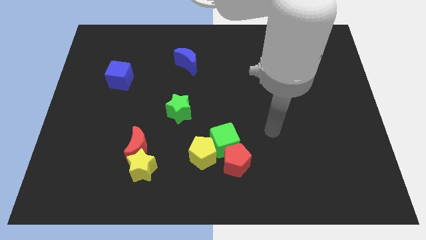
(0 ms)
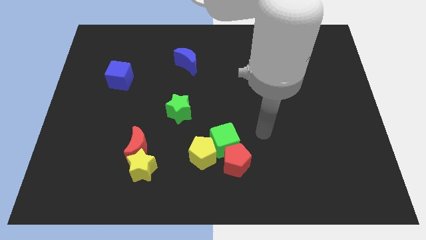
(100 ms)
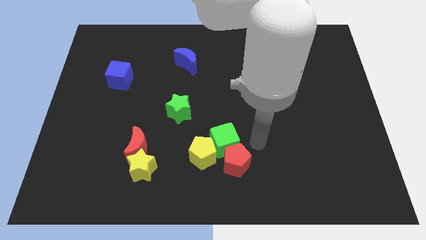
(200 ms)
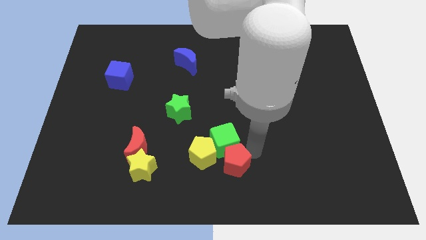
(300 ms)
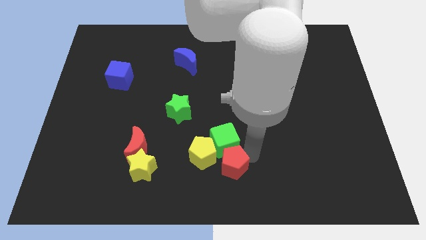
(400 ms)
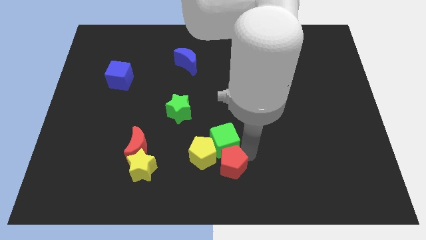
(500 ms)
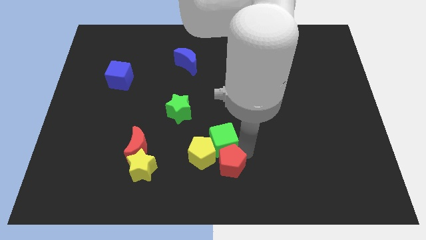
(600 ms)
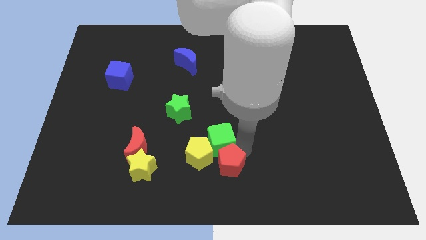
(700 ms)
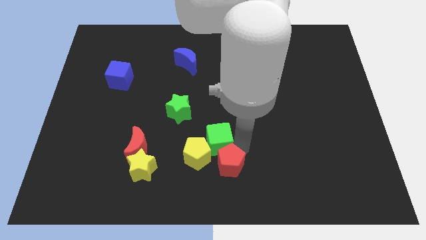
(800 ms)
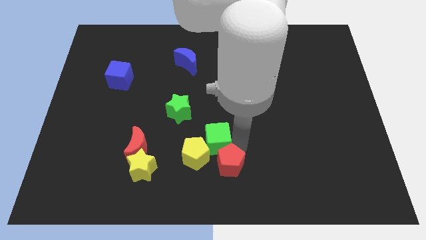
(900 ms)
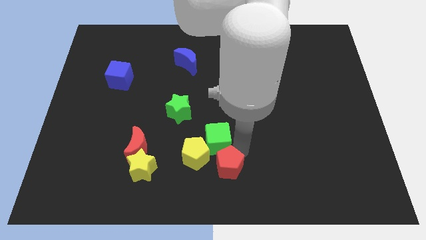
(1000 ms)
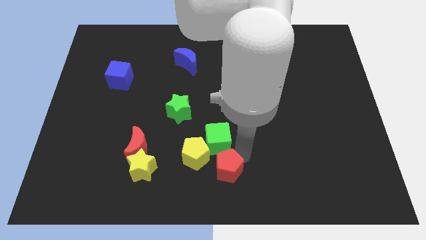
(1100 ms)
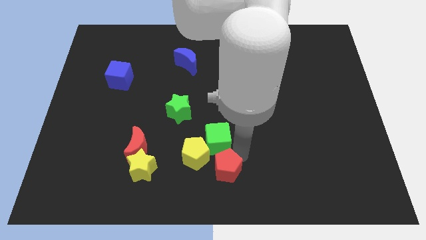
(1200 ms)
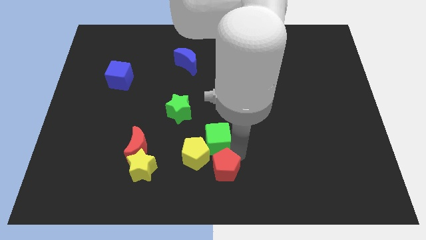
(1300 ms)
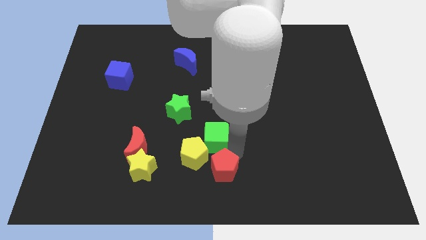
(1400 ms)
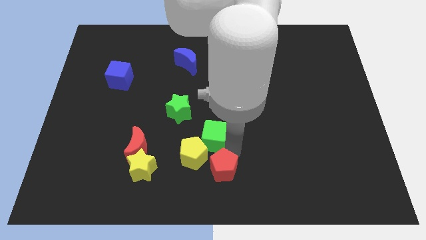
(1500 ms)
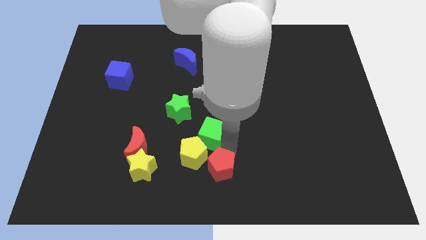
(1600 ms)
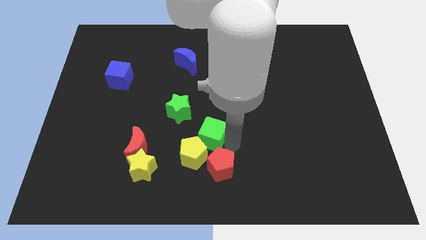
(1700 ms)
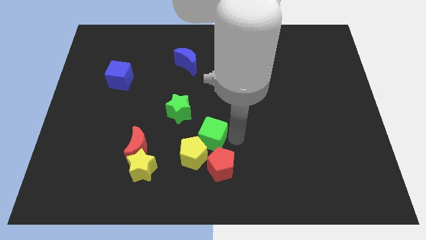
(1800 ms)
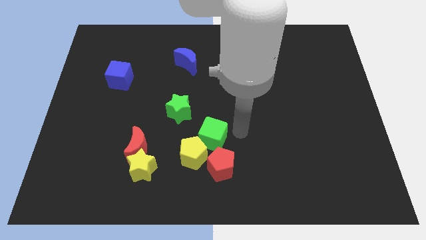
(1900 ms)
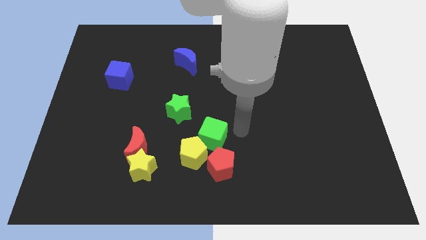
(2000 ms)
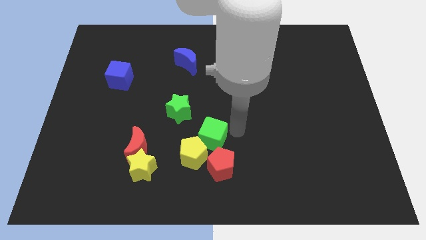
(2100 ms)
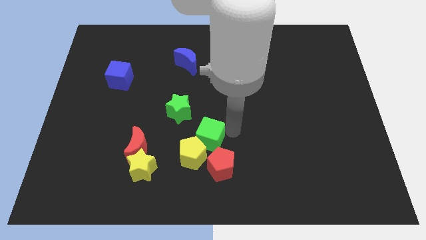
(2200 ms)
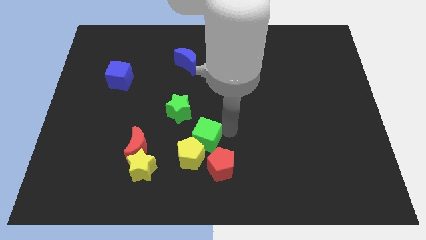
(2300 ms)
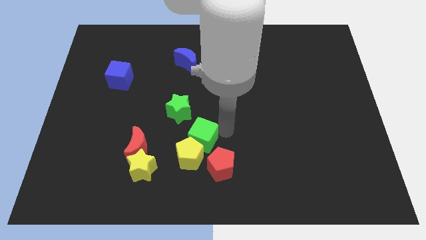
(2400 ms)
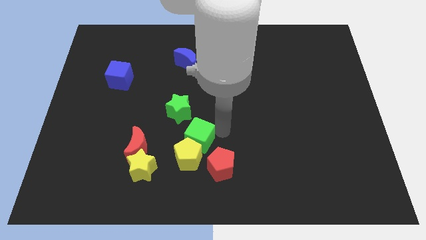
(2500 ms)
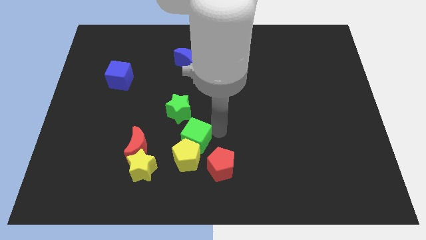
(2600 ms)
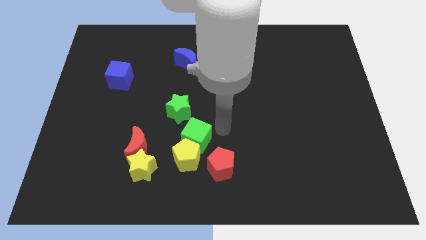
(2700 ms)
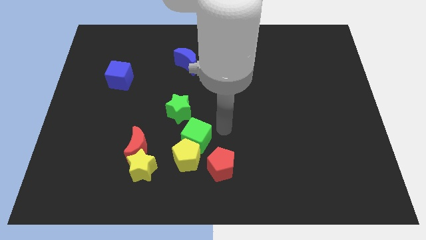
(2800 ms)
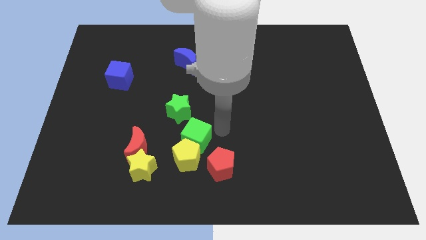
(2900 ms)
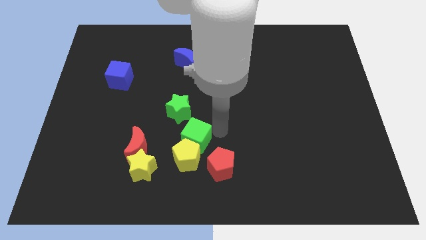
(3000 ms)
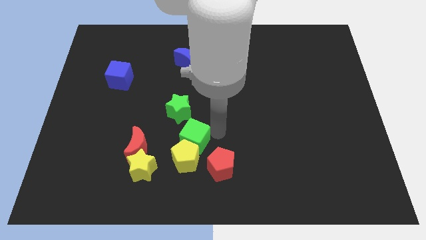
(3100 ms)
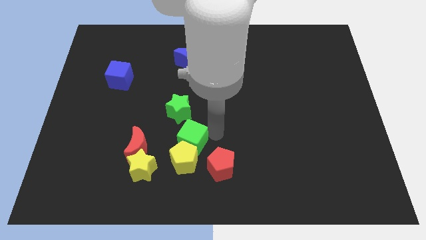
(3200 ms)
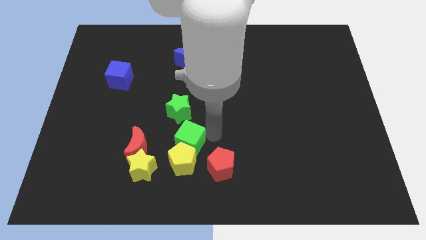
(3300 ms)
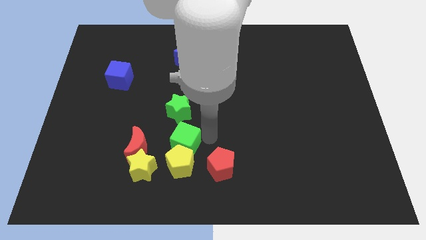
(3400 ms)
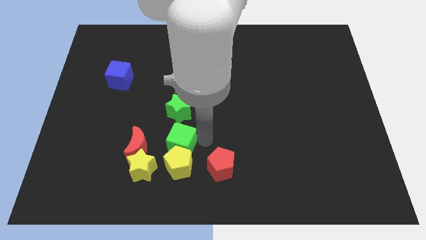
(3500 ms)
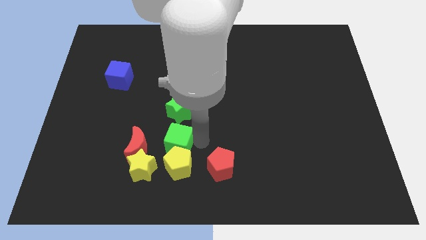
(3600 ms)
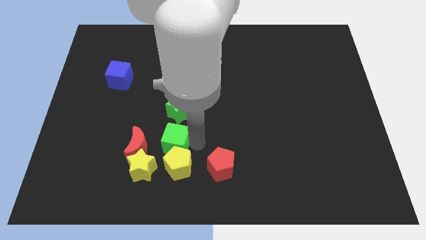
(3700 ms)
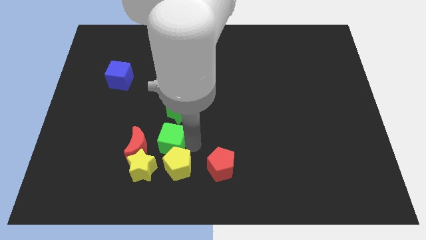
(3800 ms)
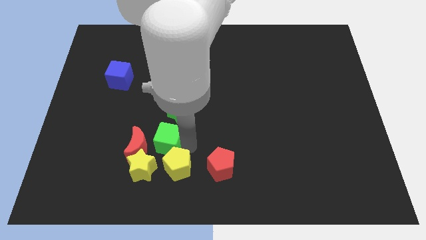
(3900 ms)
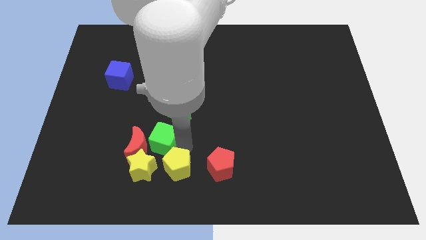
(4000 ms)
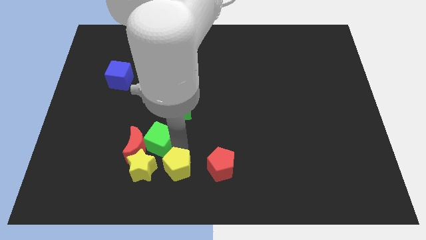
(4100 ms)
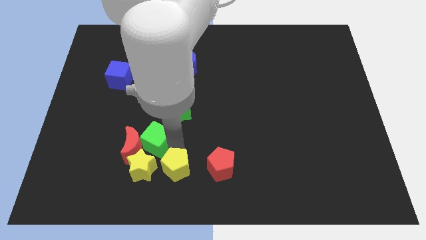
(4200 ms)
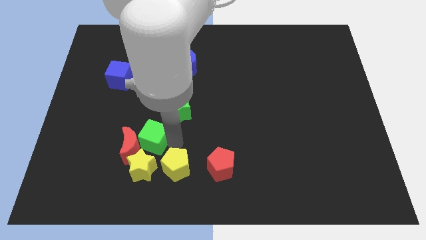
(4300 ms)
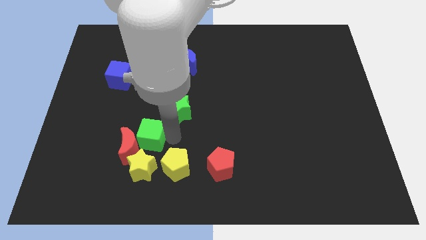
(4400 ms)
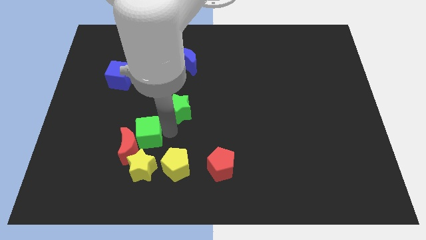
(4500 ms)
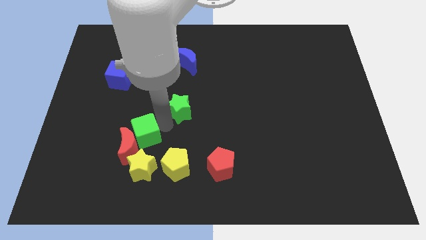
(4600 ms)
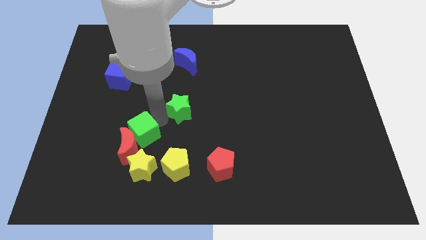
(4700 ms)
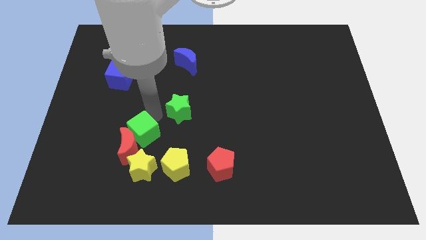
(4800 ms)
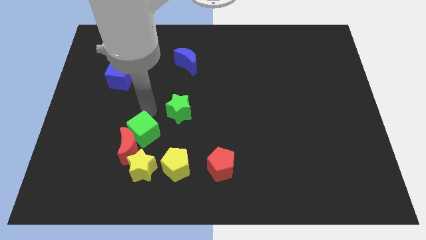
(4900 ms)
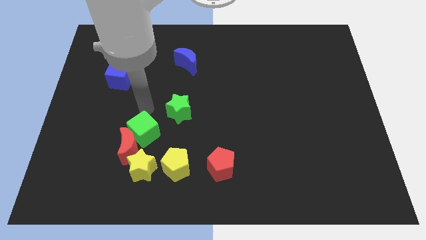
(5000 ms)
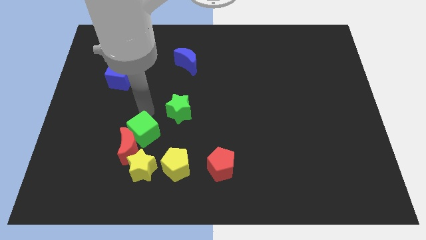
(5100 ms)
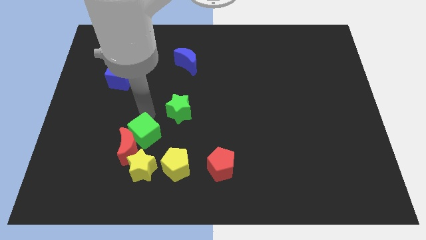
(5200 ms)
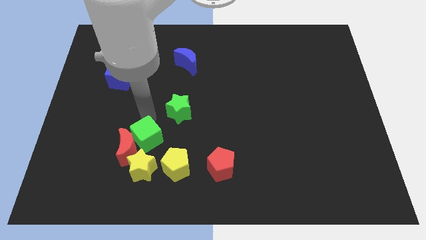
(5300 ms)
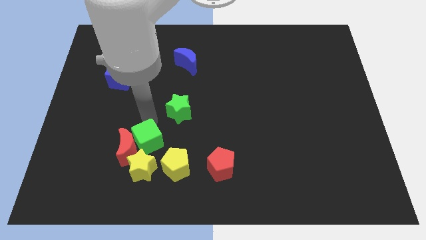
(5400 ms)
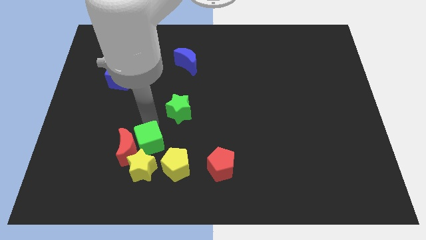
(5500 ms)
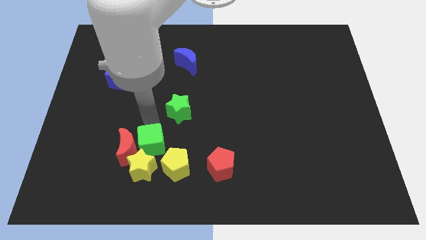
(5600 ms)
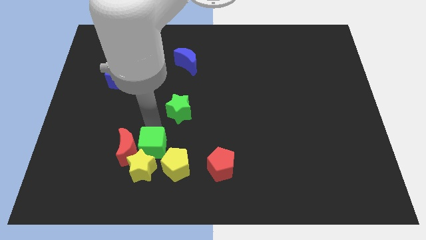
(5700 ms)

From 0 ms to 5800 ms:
slide the green cube towards the yellow star

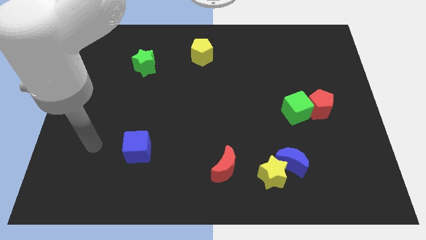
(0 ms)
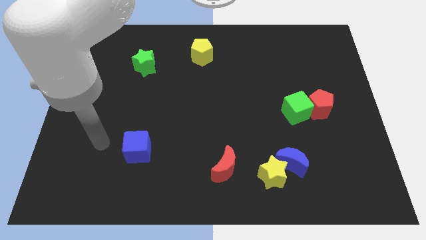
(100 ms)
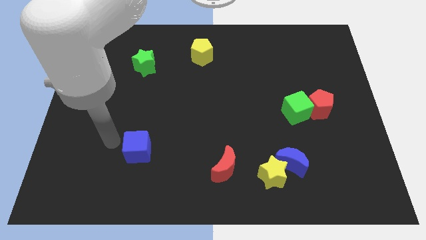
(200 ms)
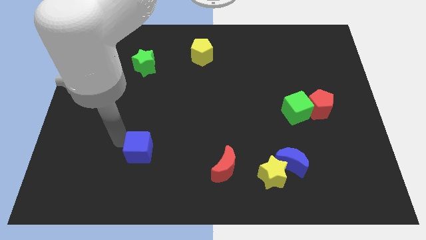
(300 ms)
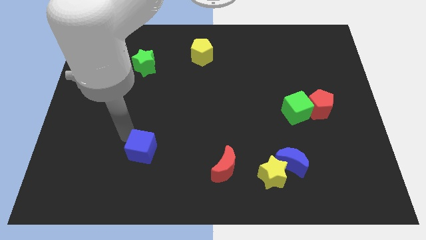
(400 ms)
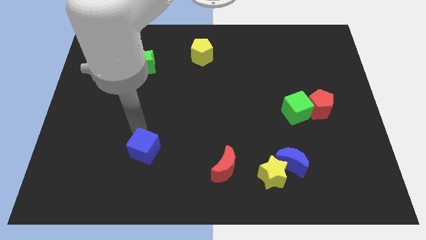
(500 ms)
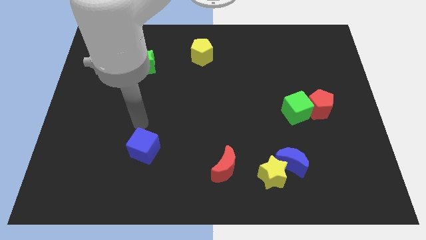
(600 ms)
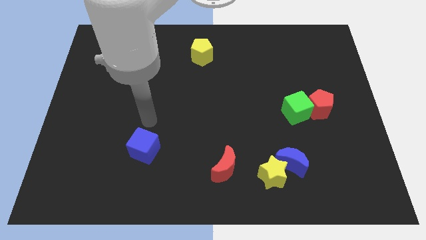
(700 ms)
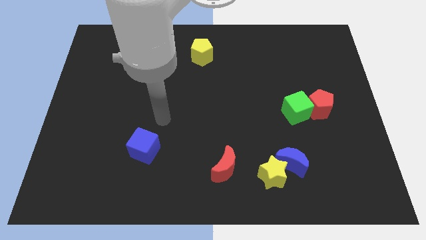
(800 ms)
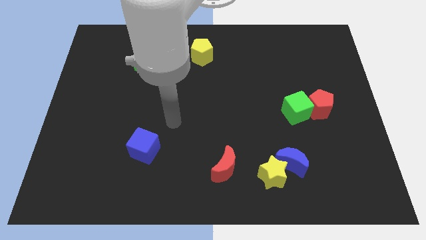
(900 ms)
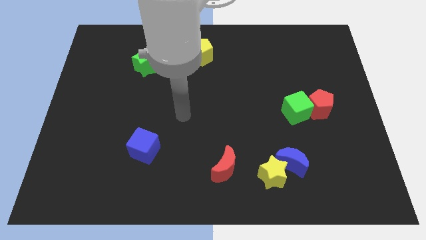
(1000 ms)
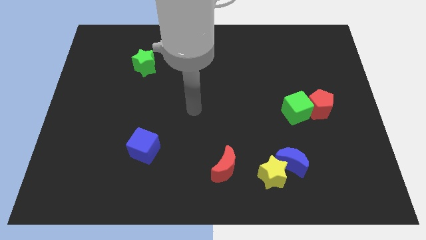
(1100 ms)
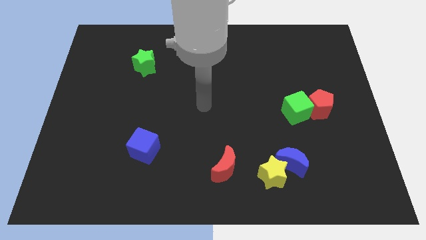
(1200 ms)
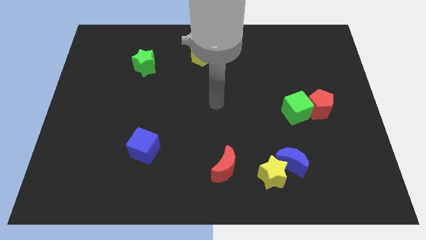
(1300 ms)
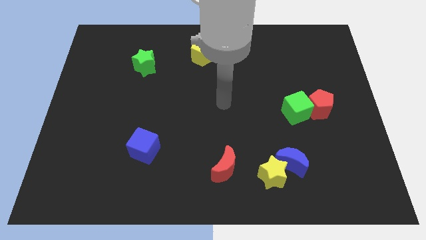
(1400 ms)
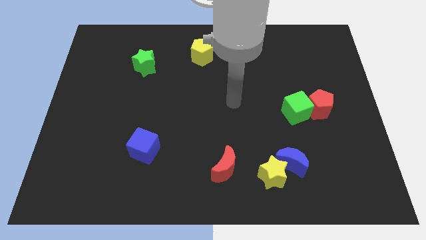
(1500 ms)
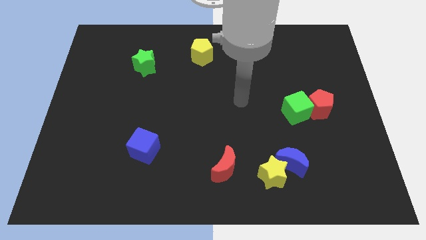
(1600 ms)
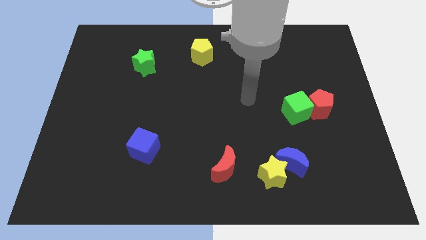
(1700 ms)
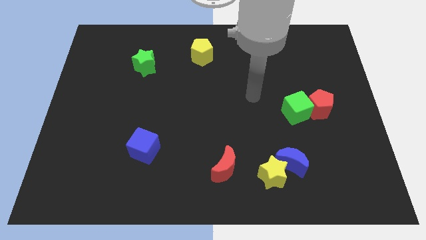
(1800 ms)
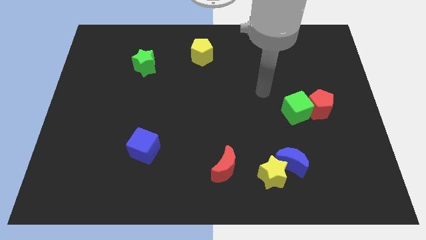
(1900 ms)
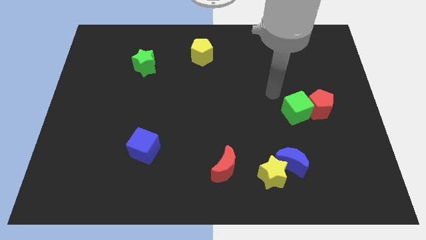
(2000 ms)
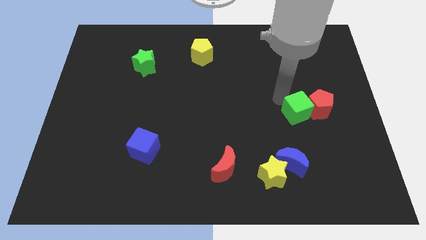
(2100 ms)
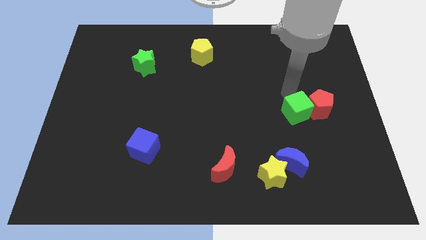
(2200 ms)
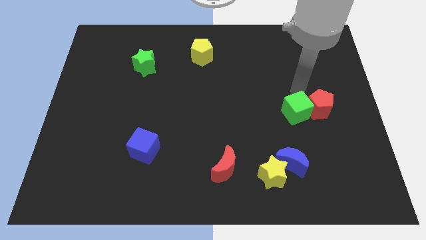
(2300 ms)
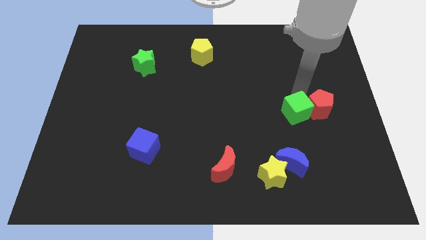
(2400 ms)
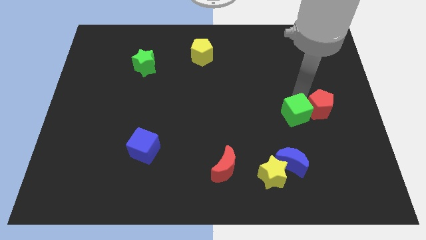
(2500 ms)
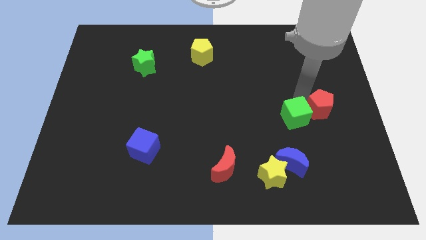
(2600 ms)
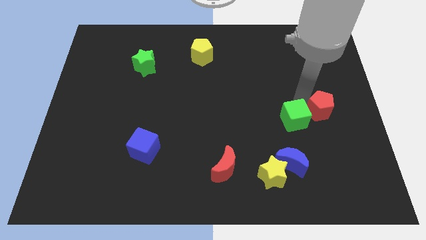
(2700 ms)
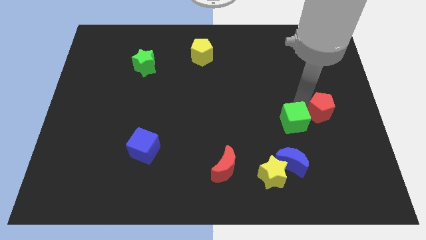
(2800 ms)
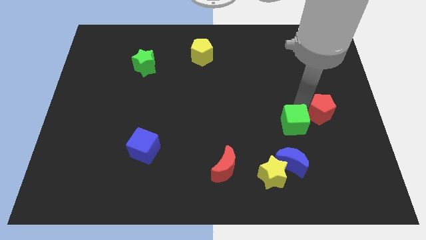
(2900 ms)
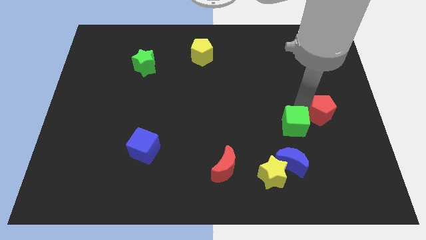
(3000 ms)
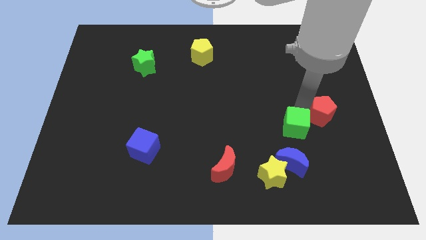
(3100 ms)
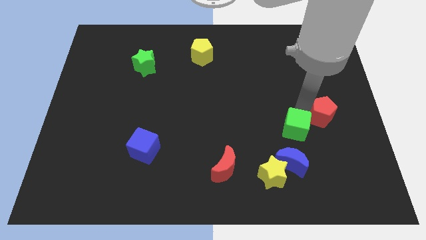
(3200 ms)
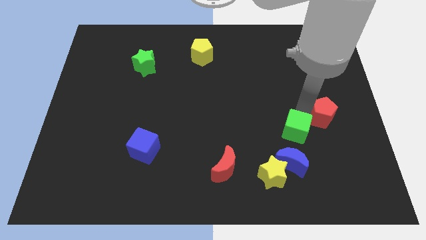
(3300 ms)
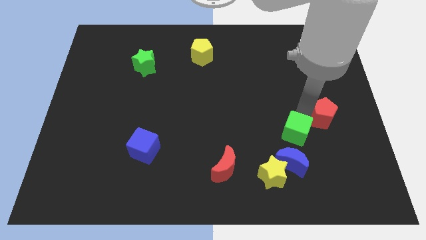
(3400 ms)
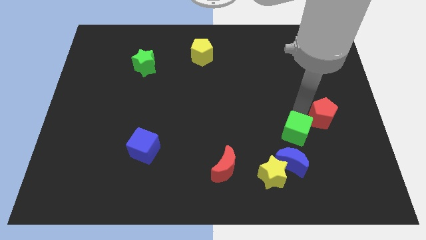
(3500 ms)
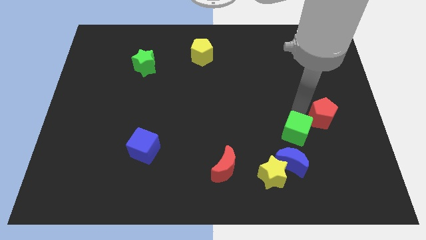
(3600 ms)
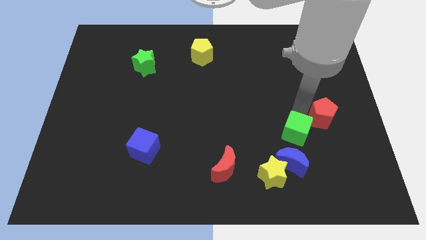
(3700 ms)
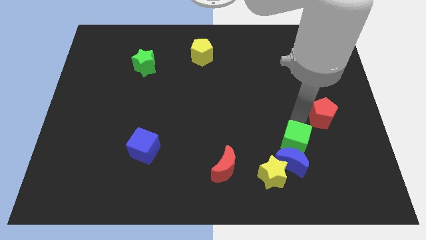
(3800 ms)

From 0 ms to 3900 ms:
move the green cube close to the blue moon
